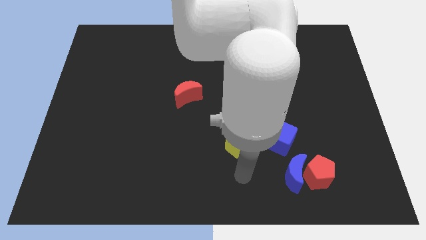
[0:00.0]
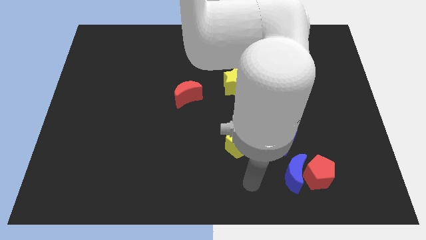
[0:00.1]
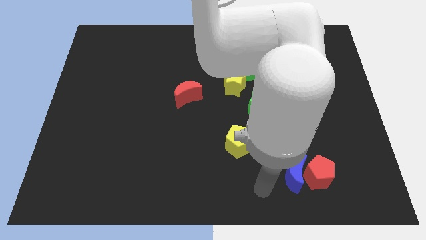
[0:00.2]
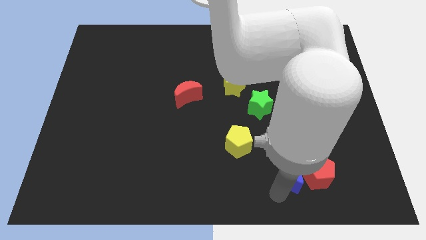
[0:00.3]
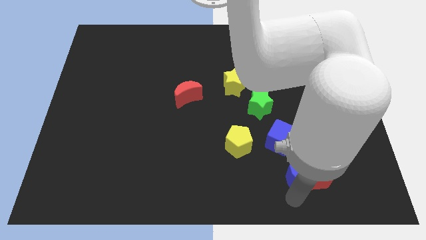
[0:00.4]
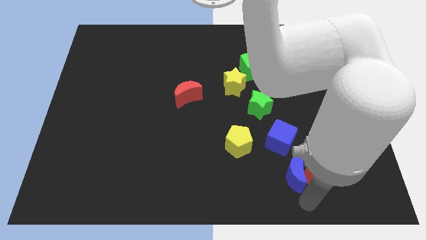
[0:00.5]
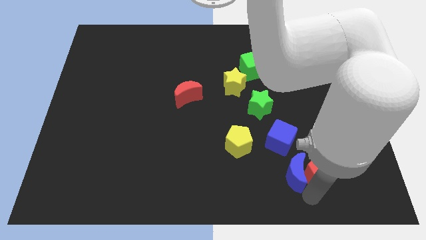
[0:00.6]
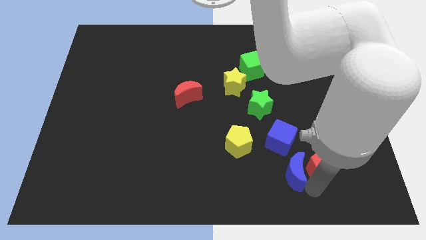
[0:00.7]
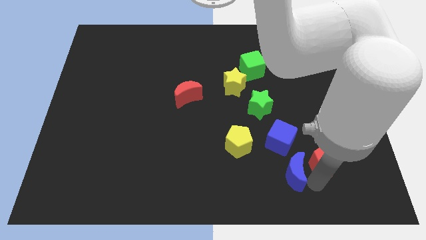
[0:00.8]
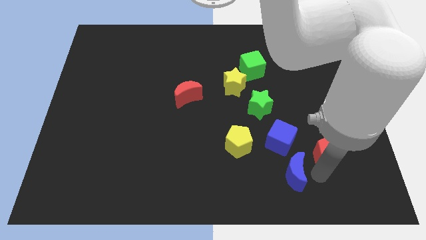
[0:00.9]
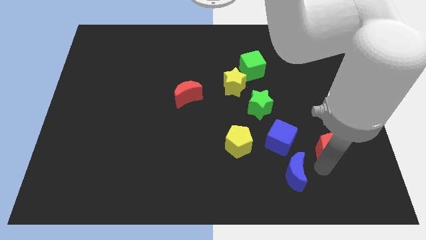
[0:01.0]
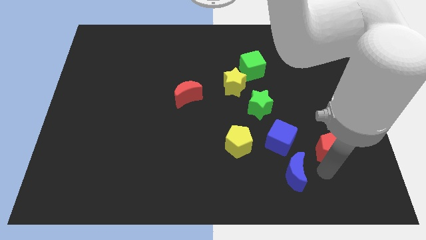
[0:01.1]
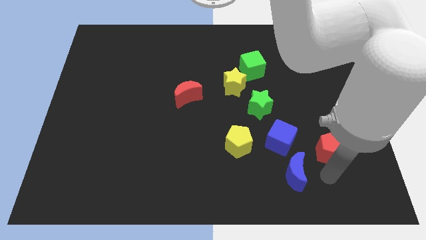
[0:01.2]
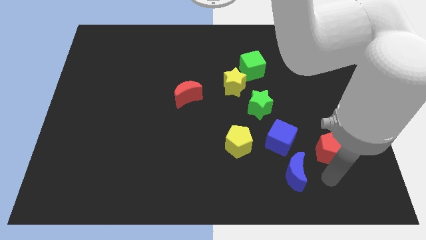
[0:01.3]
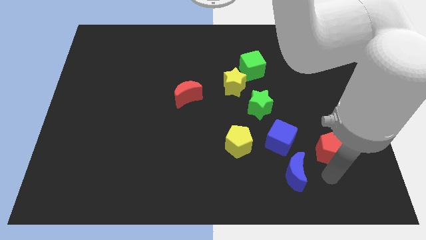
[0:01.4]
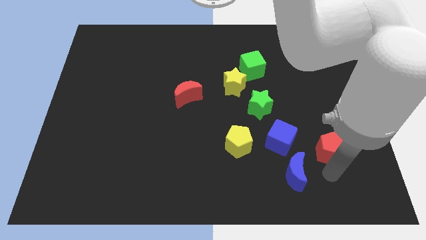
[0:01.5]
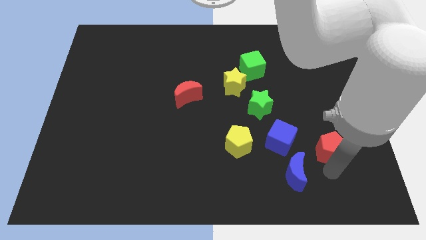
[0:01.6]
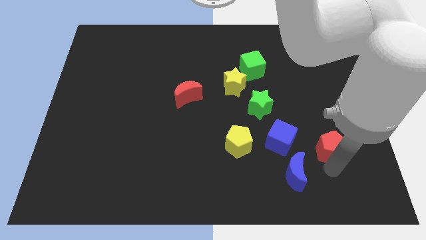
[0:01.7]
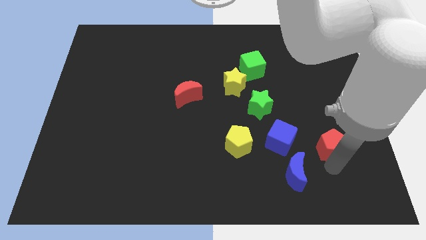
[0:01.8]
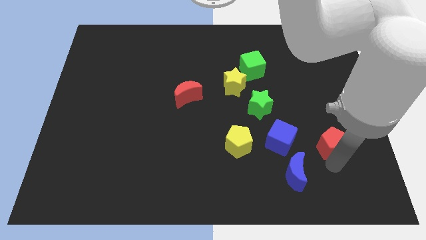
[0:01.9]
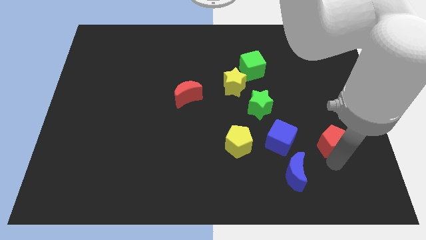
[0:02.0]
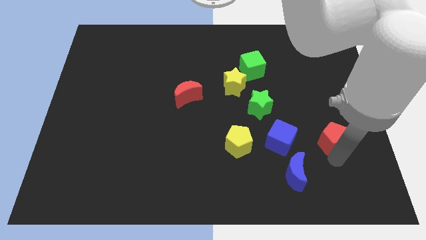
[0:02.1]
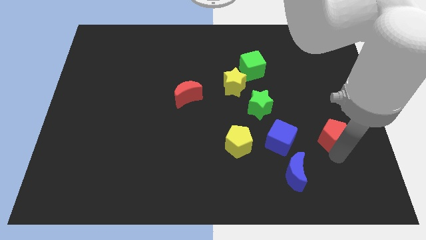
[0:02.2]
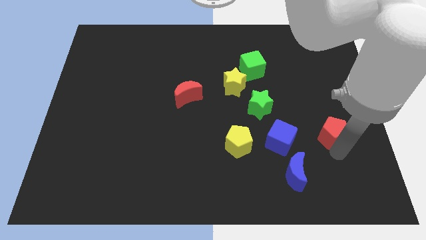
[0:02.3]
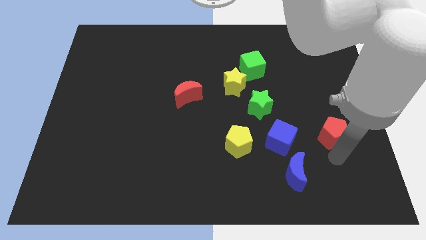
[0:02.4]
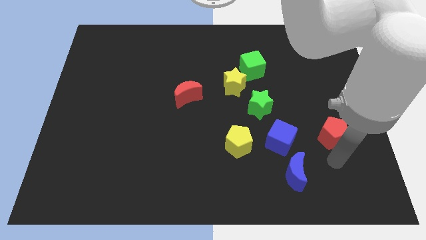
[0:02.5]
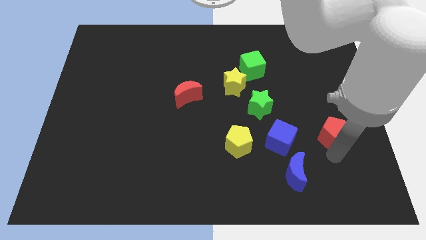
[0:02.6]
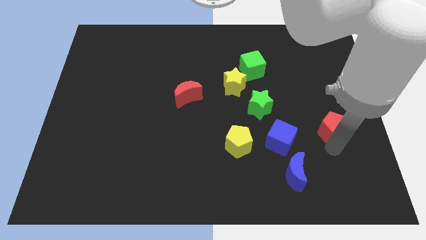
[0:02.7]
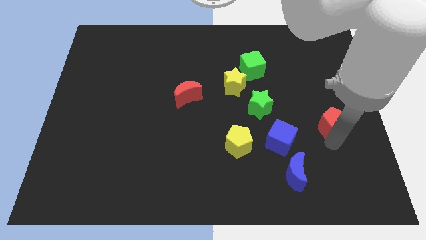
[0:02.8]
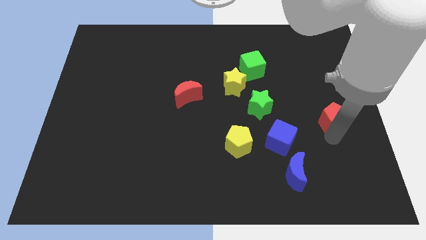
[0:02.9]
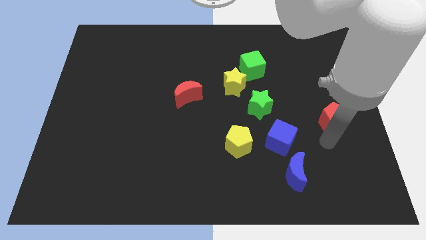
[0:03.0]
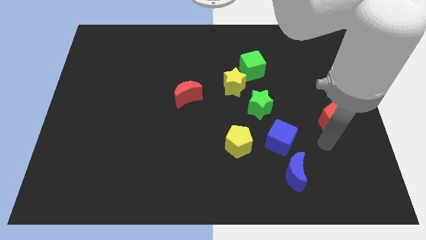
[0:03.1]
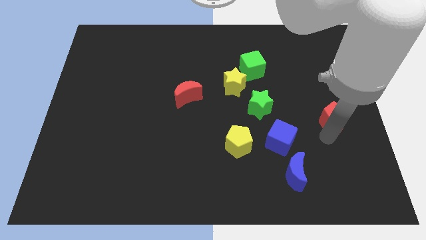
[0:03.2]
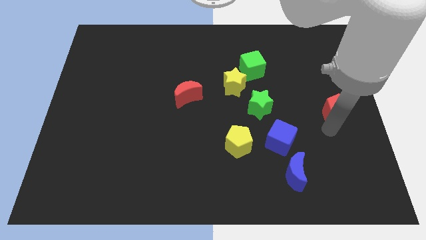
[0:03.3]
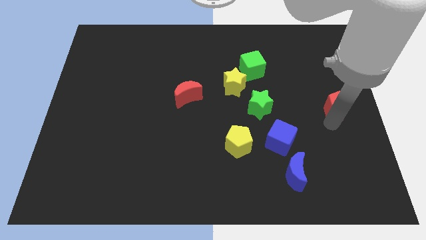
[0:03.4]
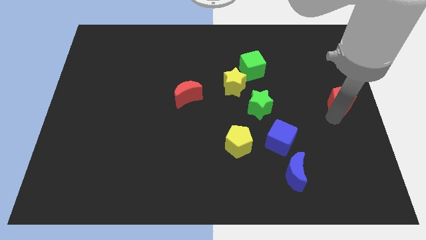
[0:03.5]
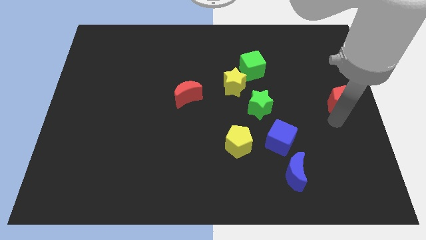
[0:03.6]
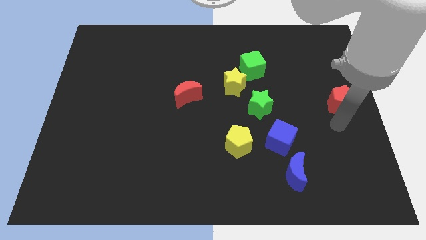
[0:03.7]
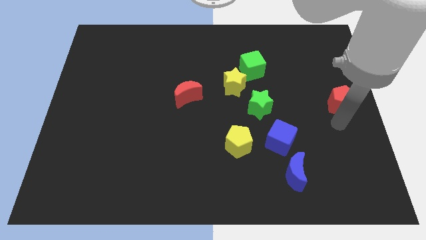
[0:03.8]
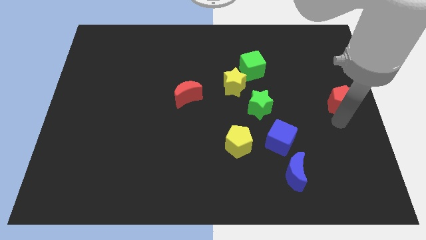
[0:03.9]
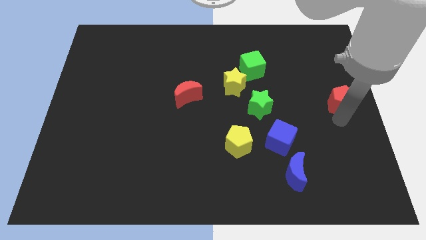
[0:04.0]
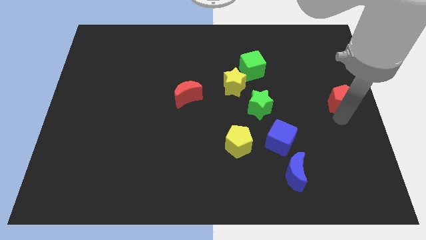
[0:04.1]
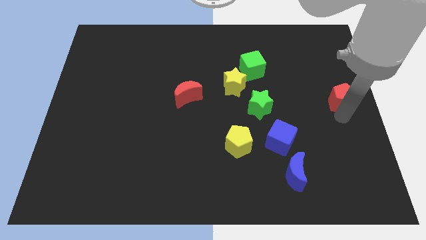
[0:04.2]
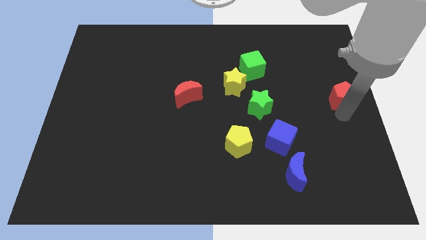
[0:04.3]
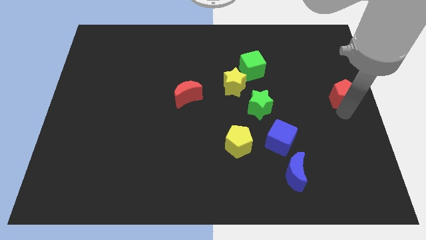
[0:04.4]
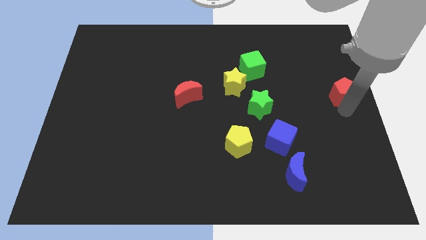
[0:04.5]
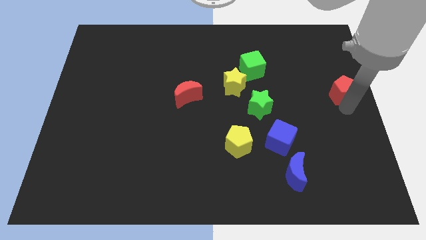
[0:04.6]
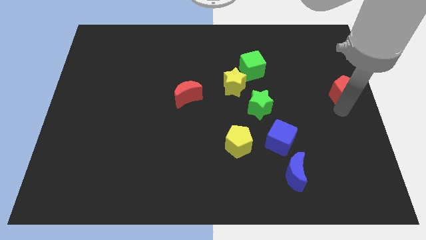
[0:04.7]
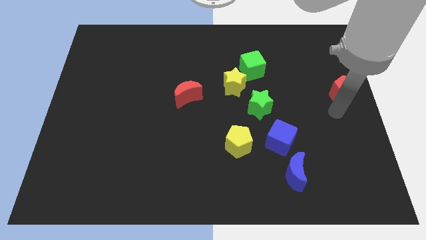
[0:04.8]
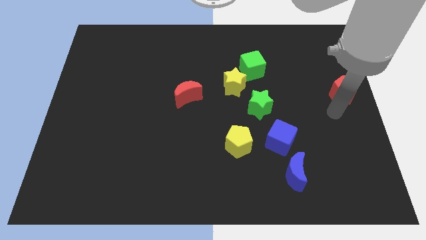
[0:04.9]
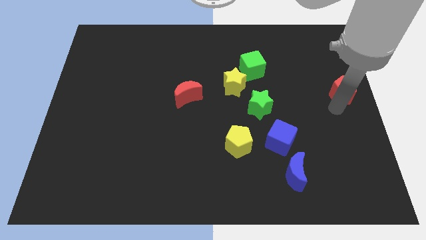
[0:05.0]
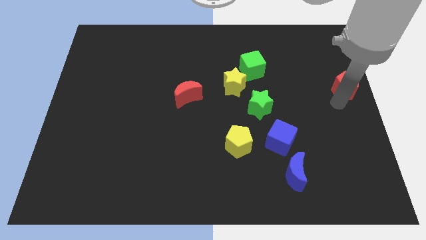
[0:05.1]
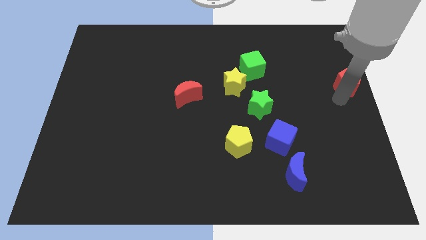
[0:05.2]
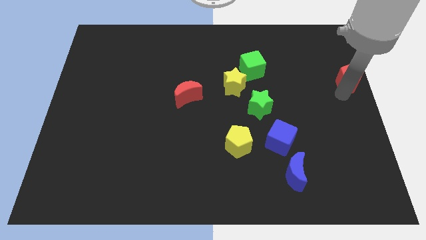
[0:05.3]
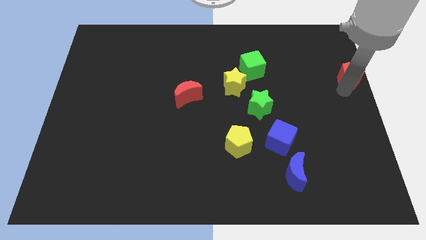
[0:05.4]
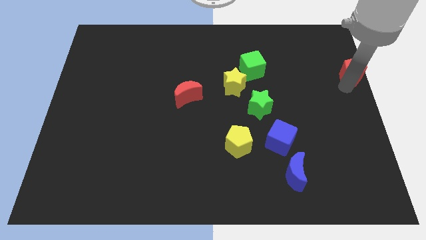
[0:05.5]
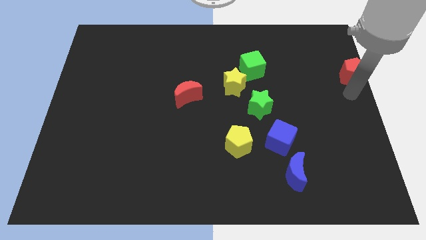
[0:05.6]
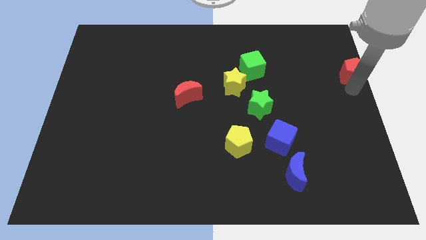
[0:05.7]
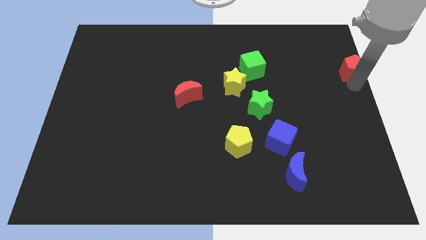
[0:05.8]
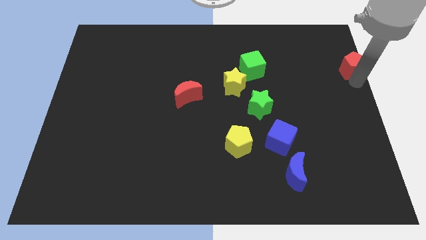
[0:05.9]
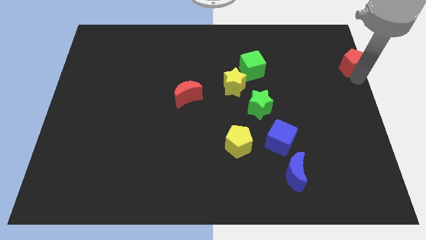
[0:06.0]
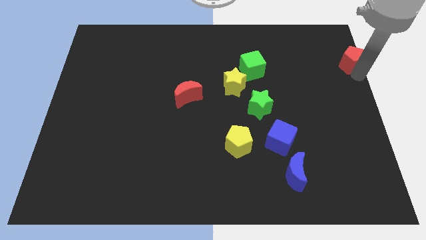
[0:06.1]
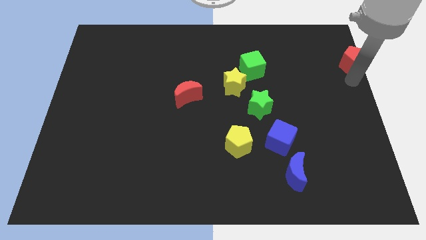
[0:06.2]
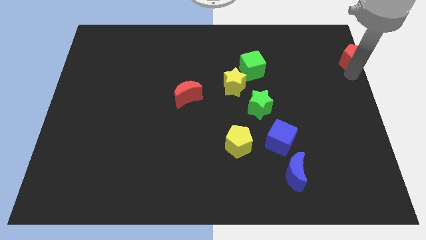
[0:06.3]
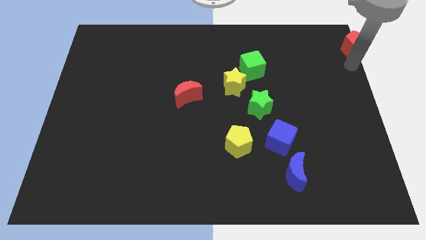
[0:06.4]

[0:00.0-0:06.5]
slide the red pentagon to the upper right corner
